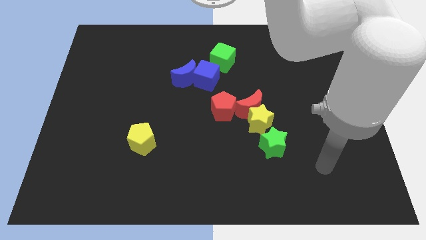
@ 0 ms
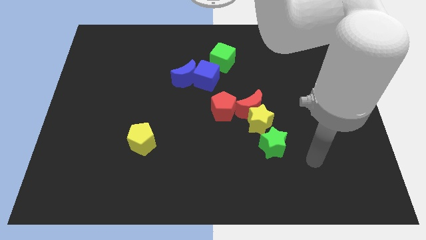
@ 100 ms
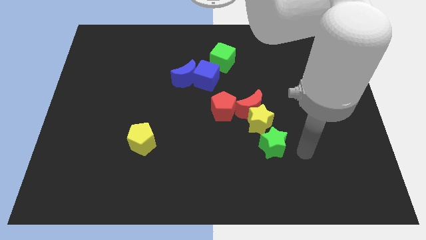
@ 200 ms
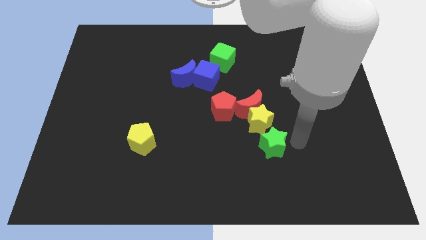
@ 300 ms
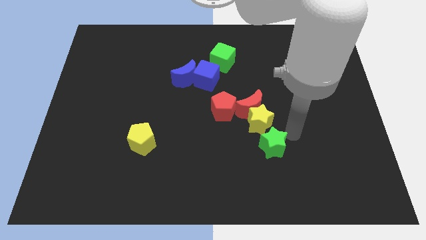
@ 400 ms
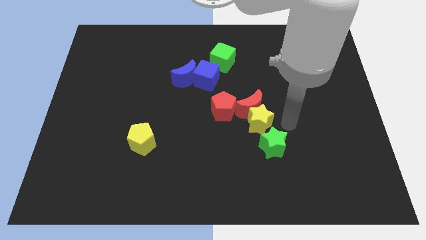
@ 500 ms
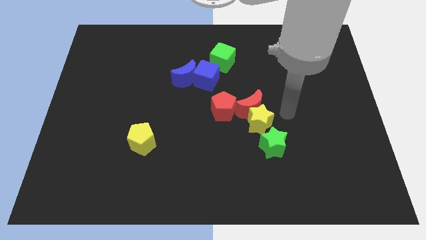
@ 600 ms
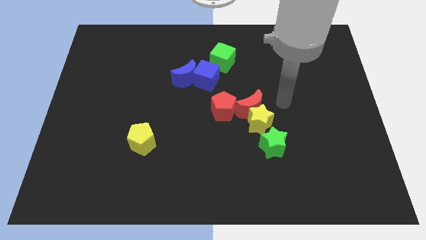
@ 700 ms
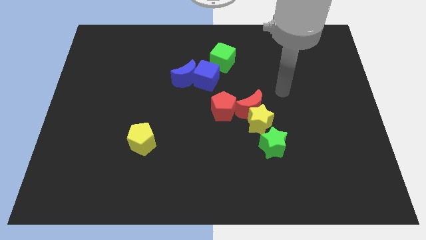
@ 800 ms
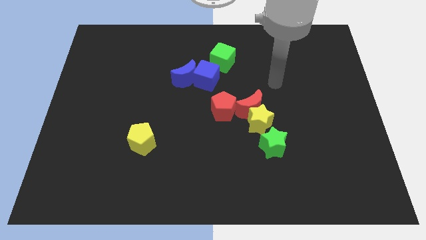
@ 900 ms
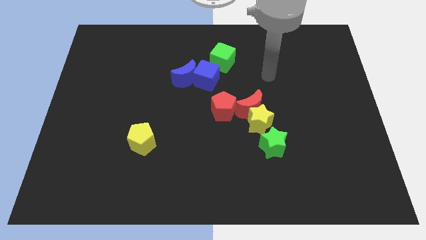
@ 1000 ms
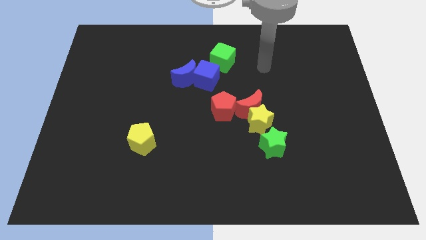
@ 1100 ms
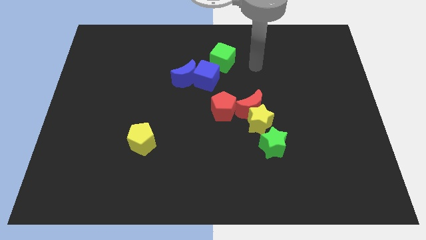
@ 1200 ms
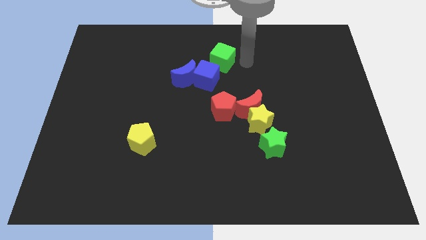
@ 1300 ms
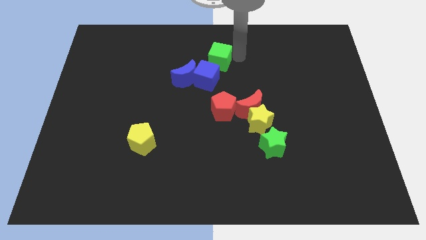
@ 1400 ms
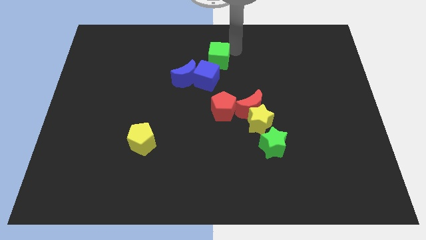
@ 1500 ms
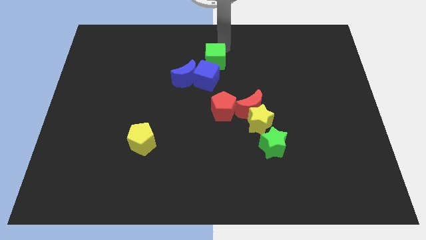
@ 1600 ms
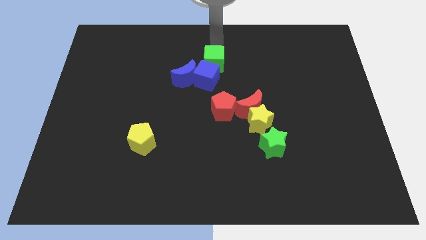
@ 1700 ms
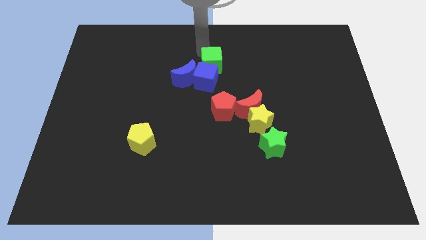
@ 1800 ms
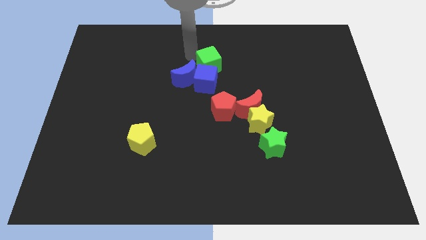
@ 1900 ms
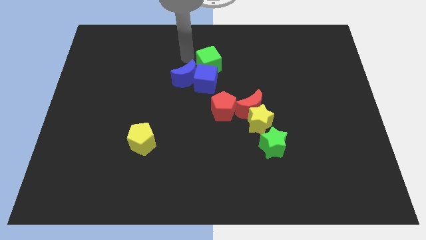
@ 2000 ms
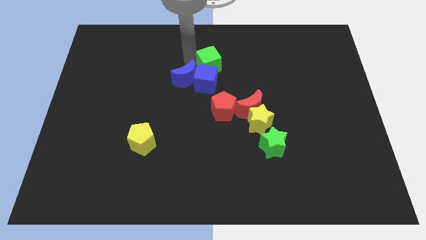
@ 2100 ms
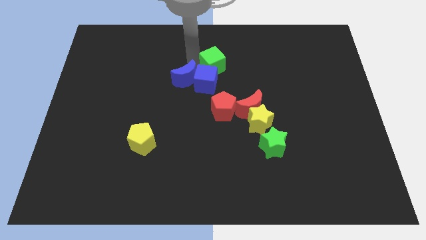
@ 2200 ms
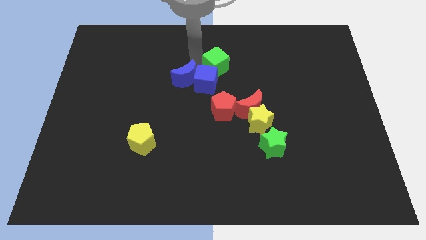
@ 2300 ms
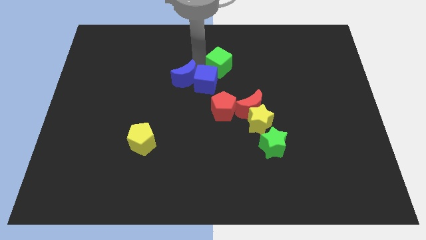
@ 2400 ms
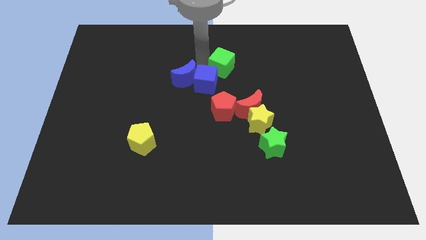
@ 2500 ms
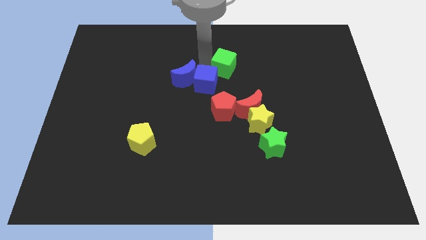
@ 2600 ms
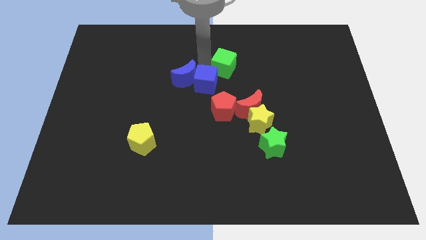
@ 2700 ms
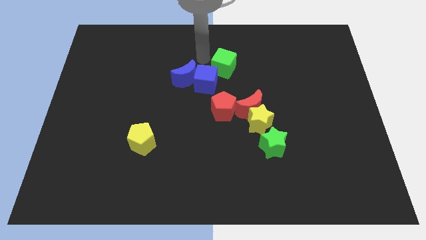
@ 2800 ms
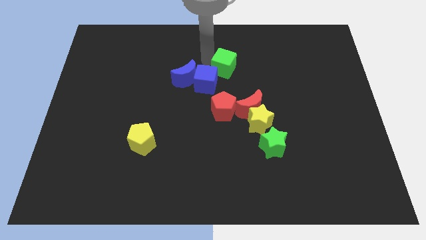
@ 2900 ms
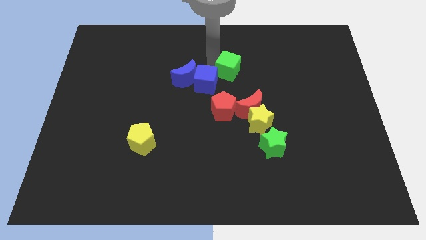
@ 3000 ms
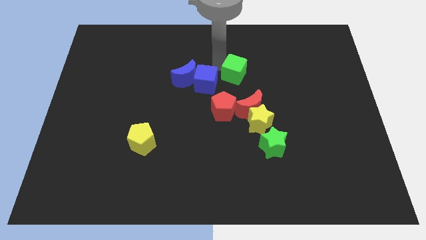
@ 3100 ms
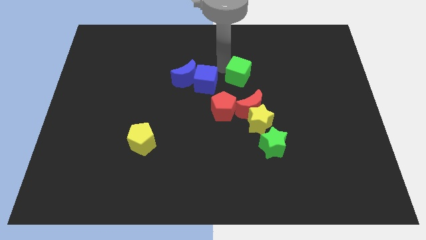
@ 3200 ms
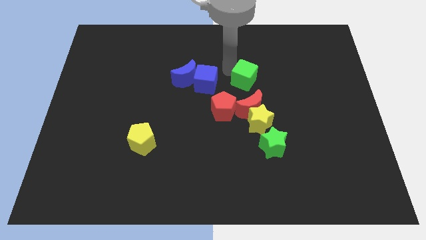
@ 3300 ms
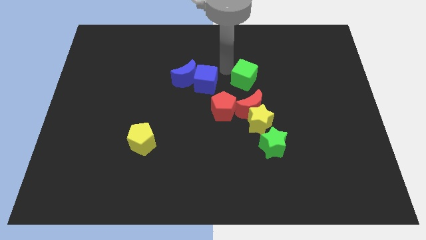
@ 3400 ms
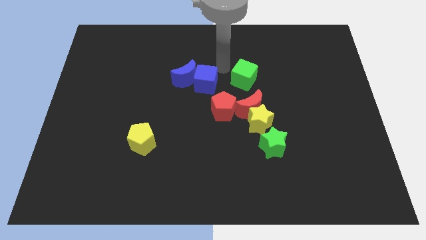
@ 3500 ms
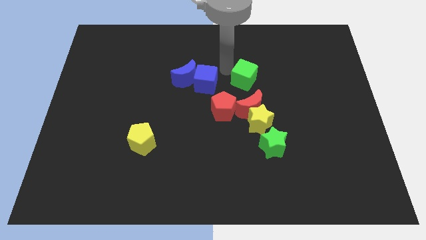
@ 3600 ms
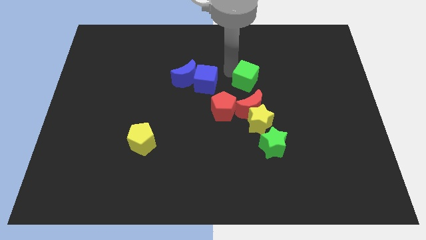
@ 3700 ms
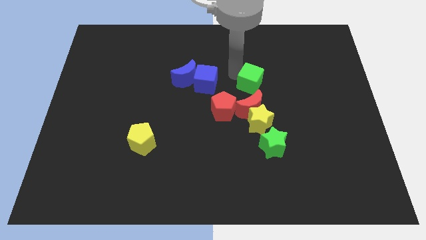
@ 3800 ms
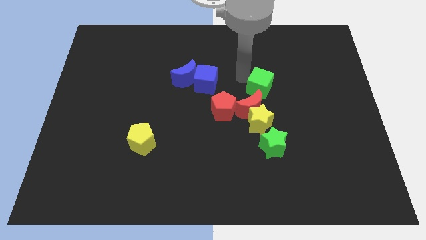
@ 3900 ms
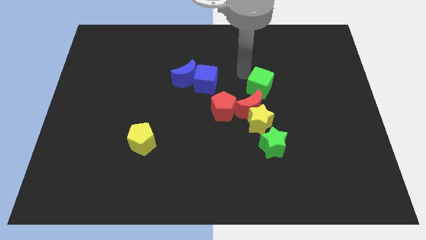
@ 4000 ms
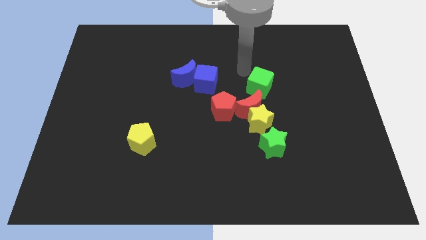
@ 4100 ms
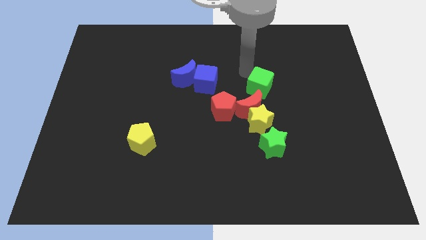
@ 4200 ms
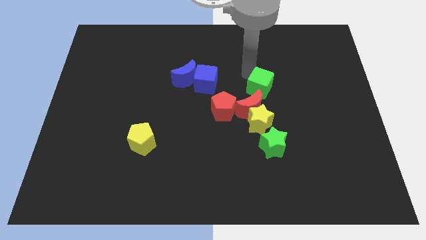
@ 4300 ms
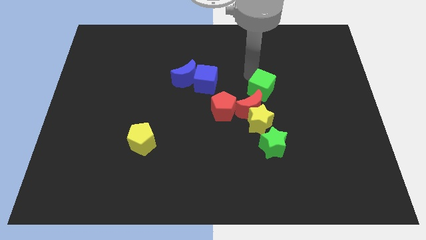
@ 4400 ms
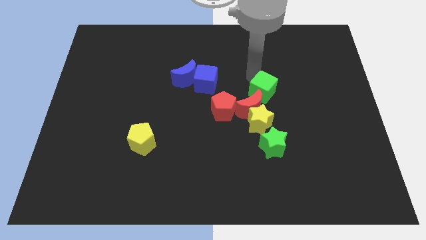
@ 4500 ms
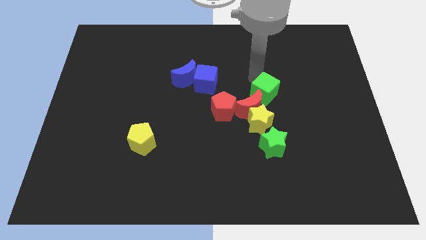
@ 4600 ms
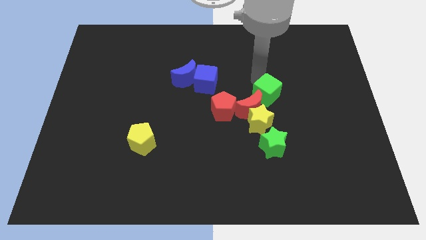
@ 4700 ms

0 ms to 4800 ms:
put the green cube to the top right side of the yellow star

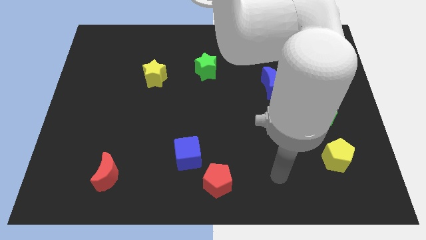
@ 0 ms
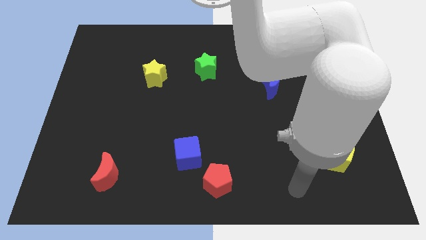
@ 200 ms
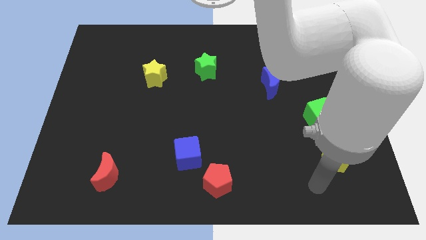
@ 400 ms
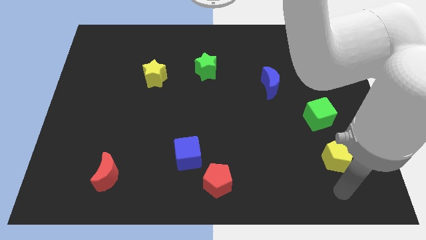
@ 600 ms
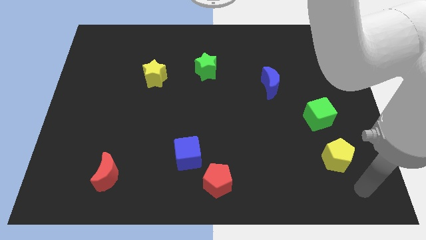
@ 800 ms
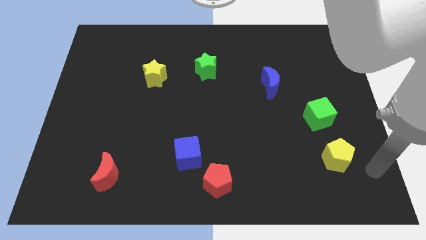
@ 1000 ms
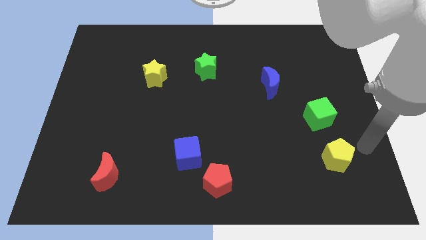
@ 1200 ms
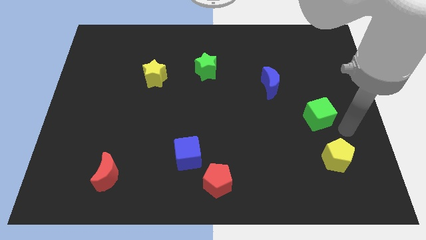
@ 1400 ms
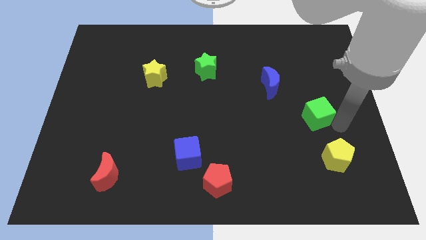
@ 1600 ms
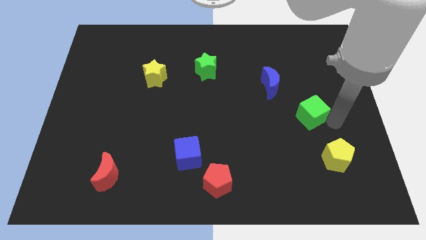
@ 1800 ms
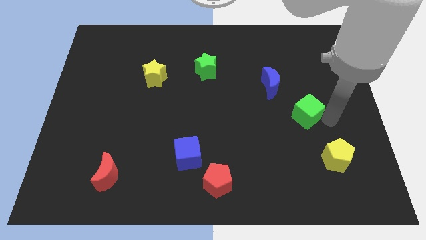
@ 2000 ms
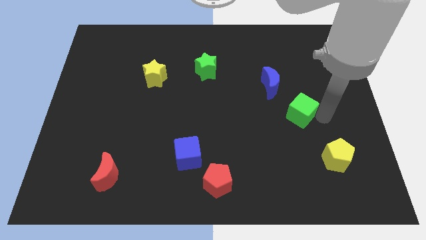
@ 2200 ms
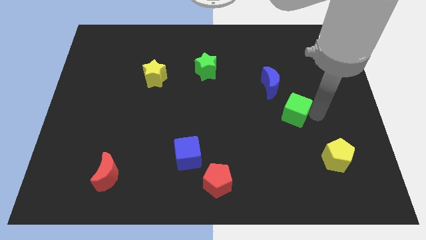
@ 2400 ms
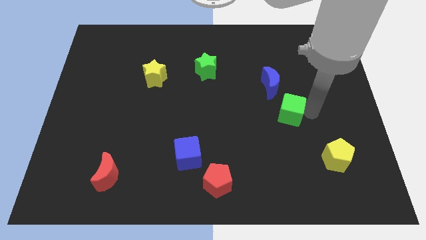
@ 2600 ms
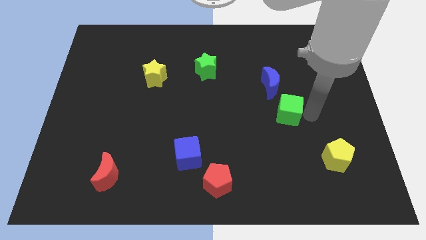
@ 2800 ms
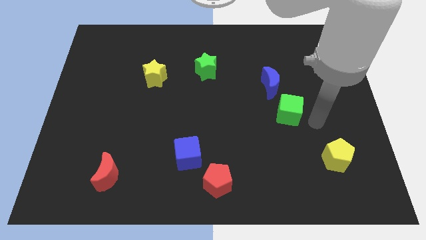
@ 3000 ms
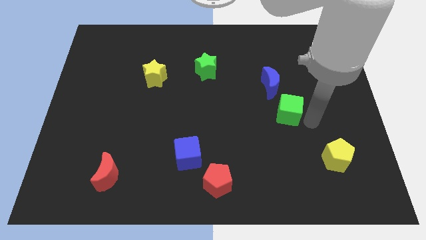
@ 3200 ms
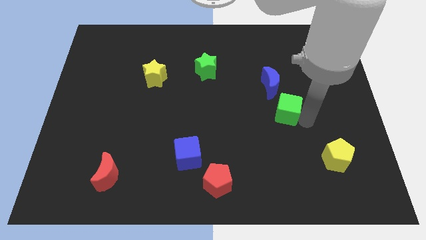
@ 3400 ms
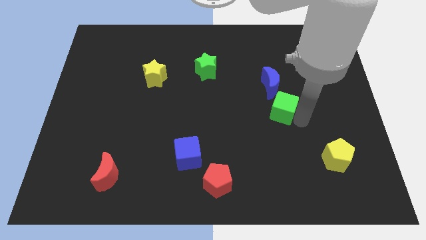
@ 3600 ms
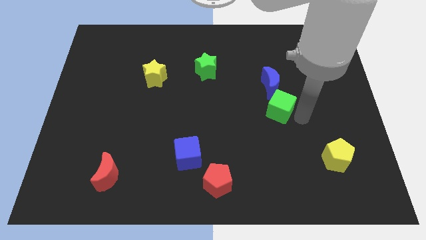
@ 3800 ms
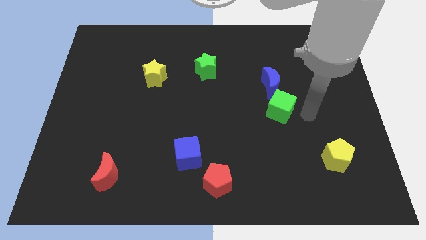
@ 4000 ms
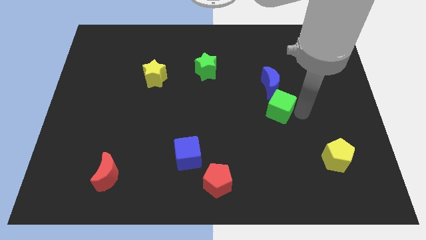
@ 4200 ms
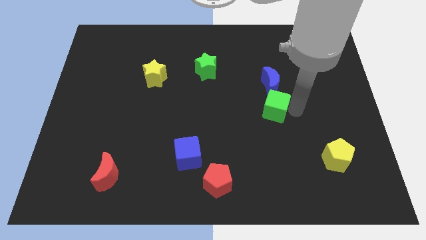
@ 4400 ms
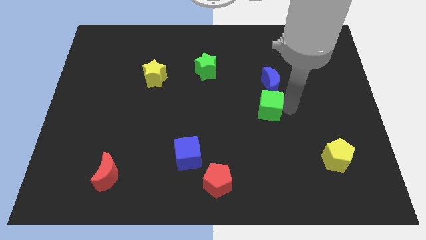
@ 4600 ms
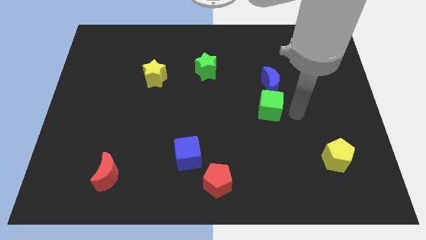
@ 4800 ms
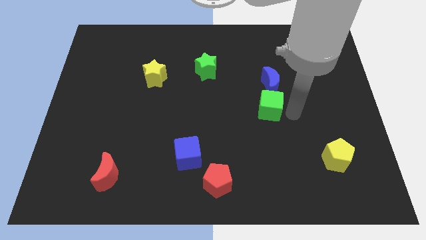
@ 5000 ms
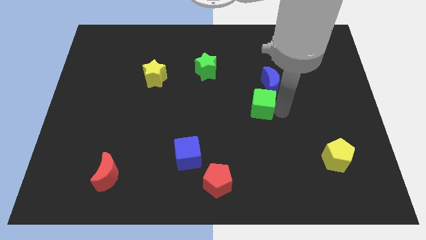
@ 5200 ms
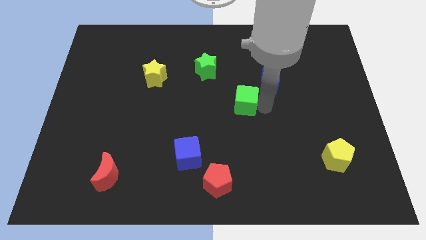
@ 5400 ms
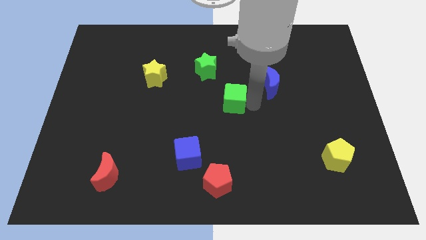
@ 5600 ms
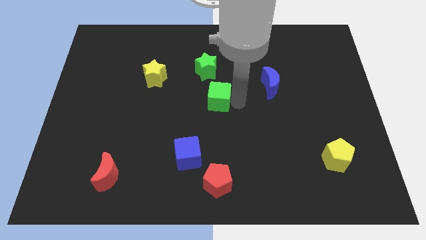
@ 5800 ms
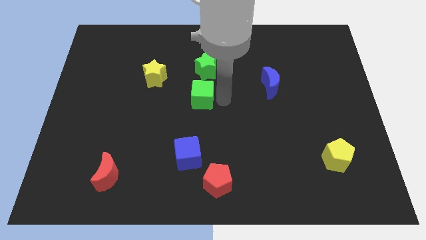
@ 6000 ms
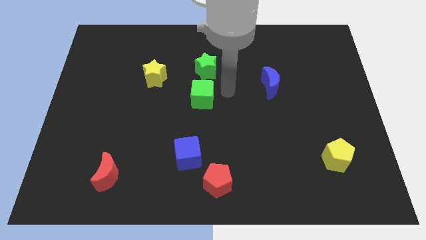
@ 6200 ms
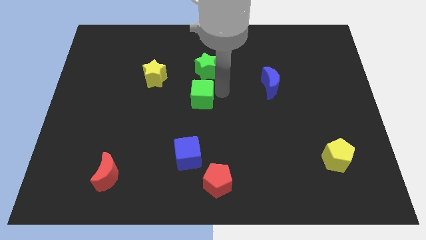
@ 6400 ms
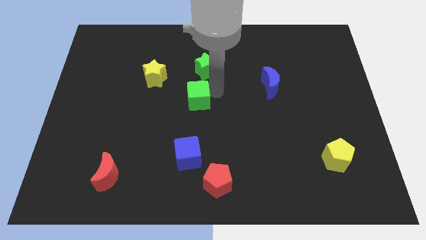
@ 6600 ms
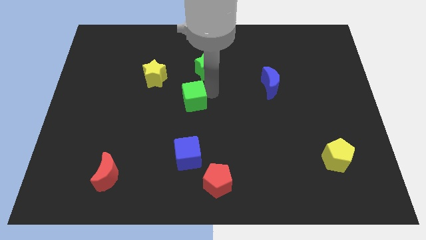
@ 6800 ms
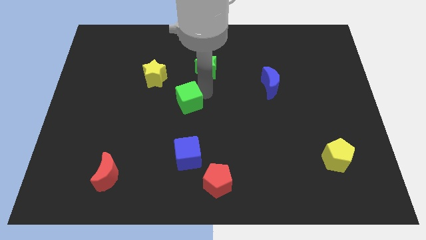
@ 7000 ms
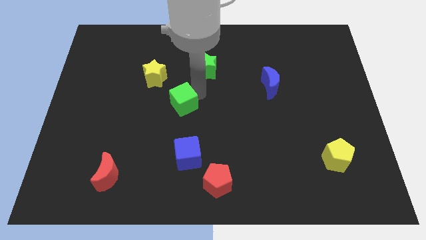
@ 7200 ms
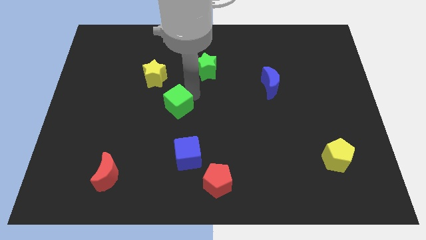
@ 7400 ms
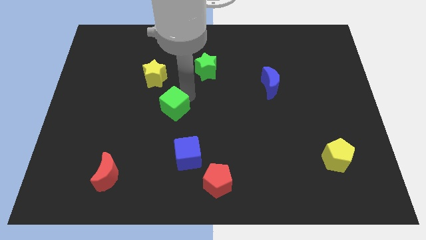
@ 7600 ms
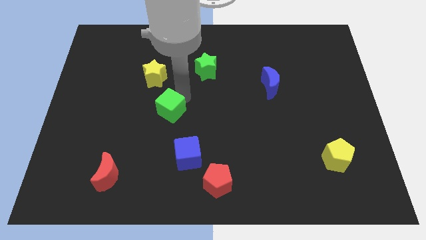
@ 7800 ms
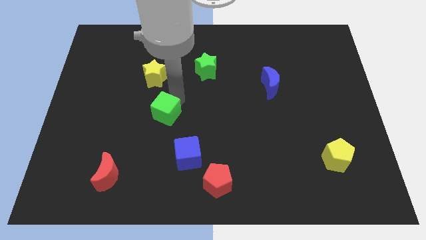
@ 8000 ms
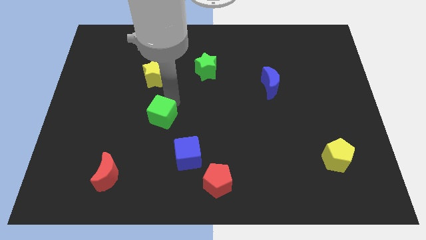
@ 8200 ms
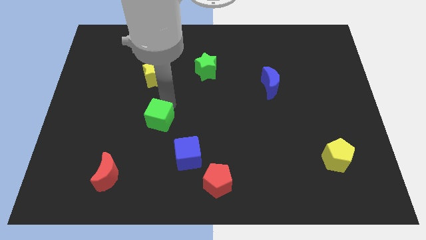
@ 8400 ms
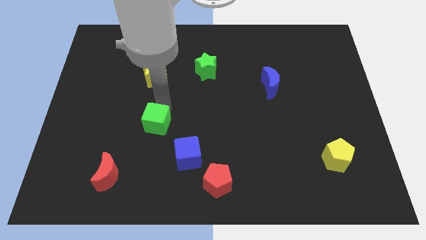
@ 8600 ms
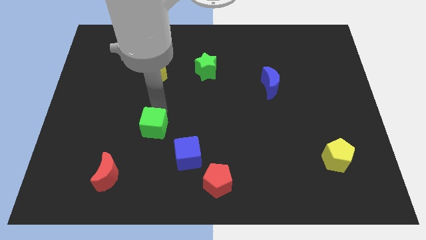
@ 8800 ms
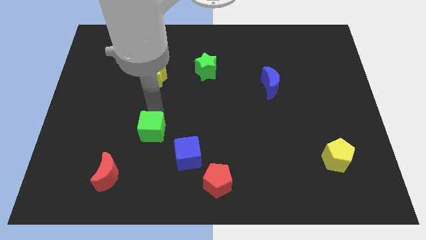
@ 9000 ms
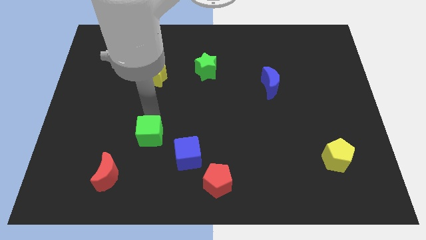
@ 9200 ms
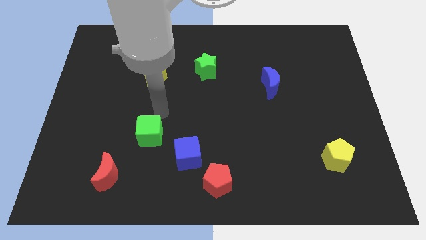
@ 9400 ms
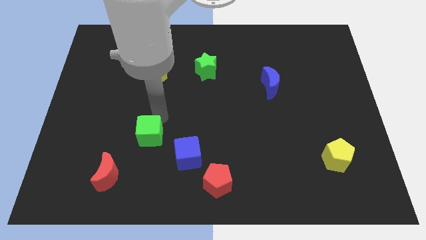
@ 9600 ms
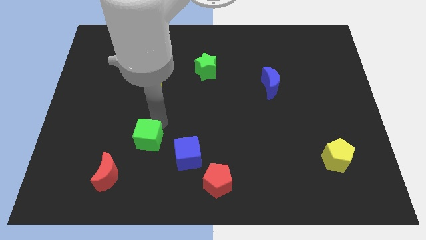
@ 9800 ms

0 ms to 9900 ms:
push the green cube to the left of the blue cube
